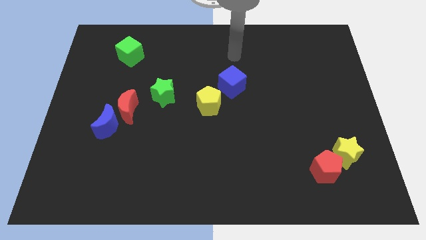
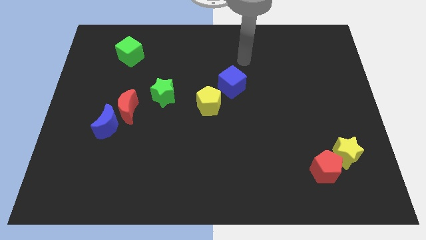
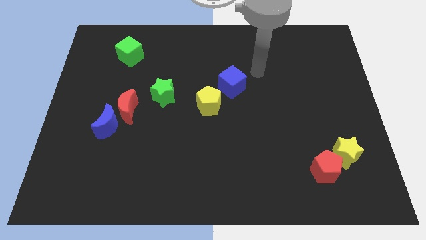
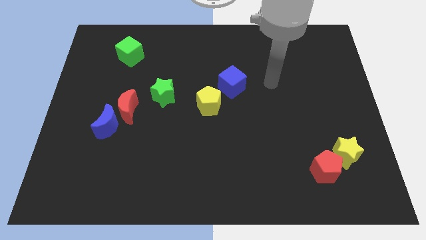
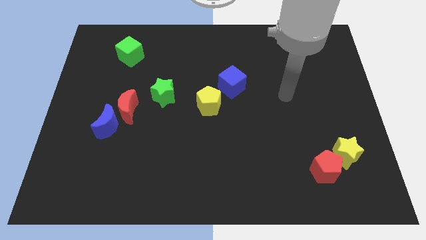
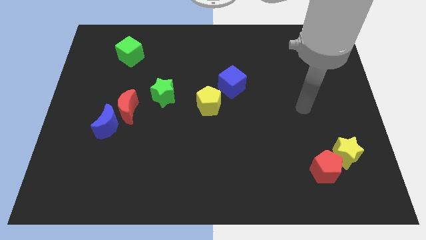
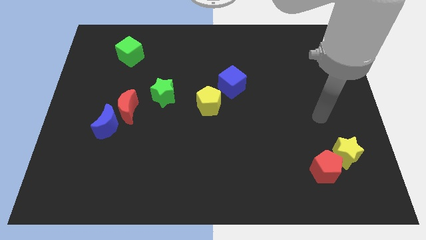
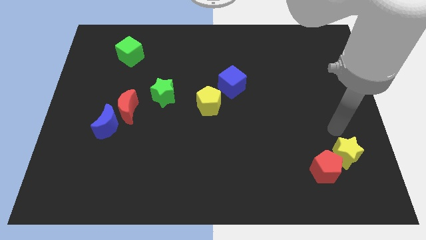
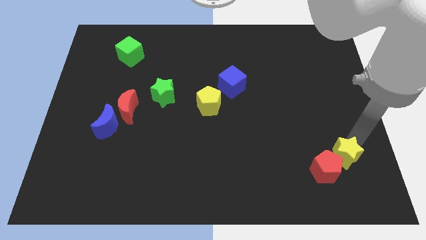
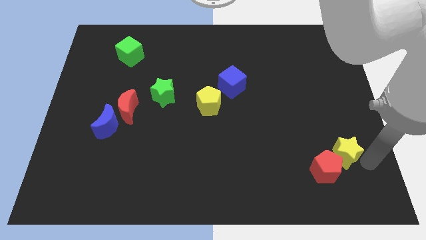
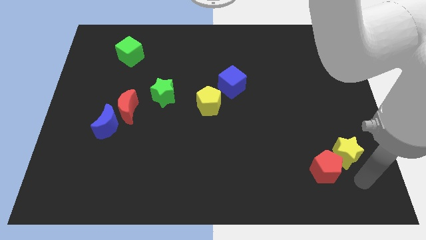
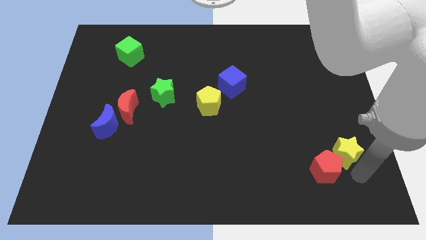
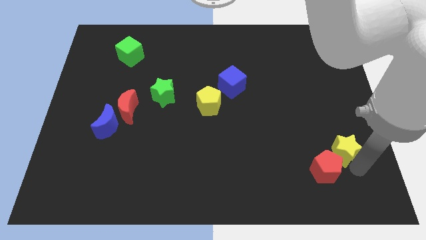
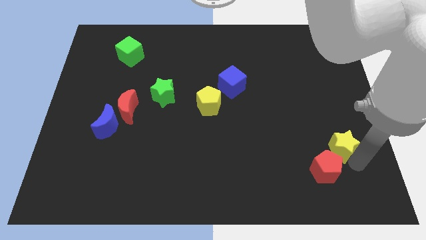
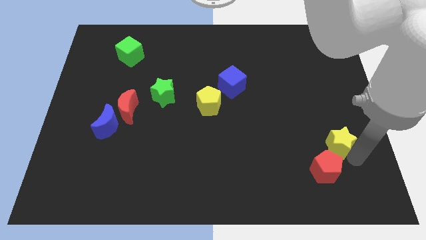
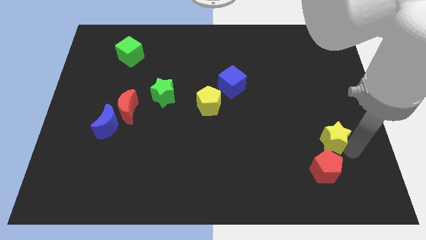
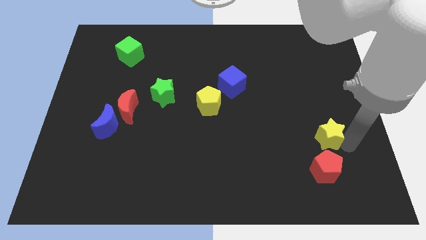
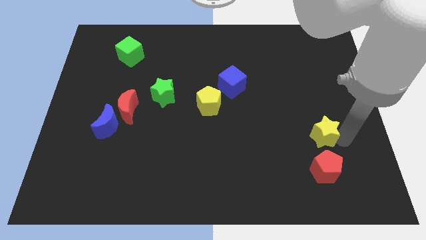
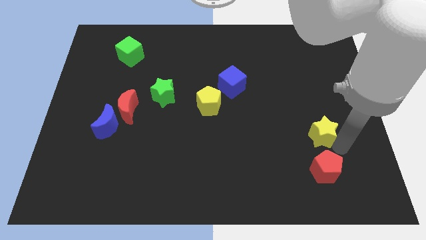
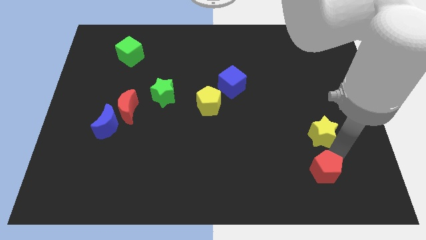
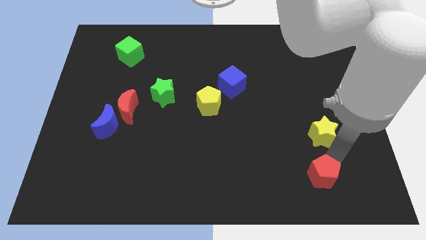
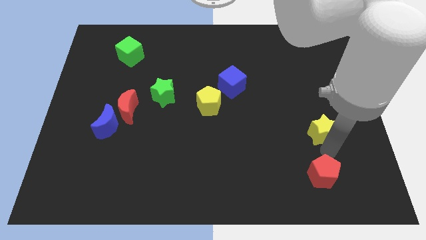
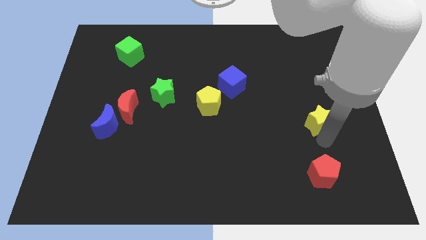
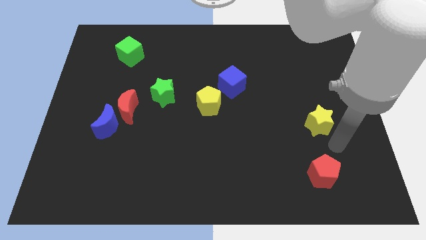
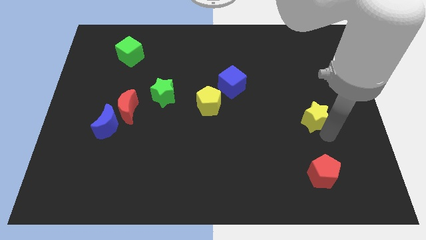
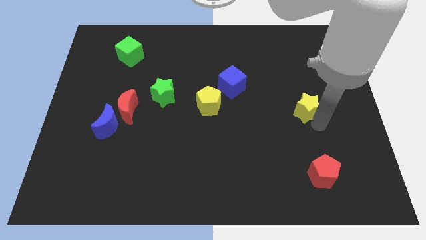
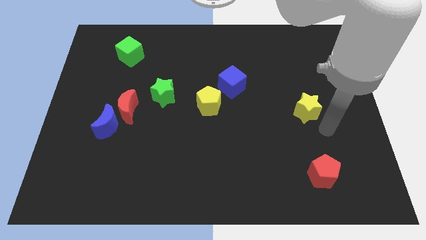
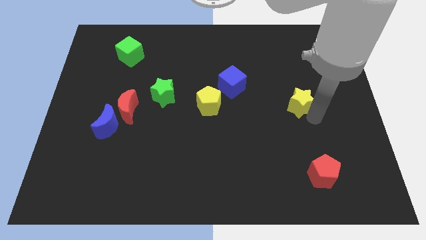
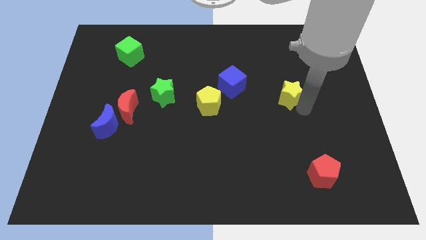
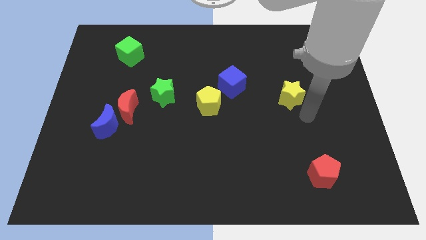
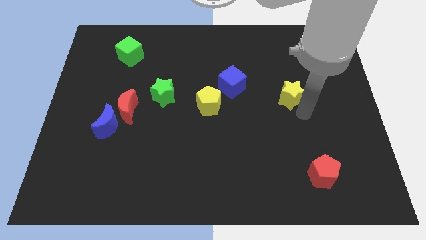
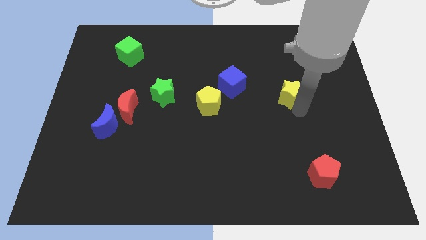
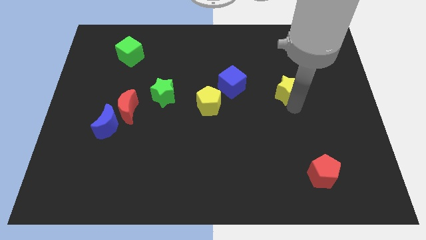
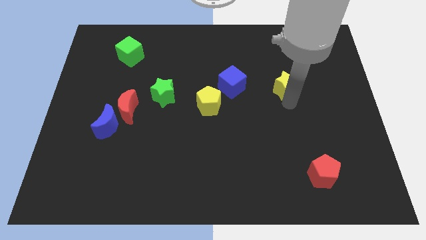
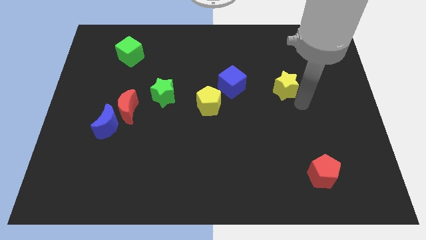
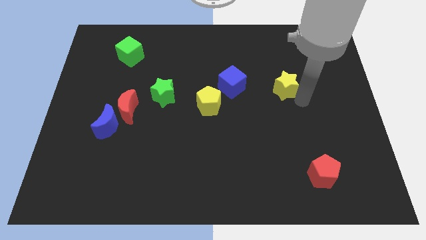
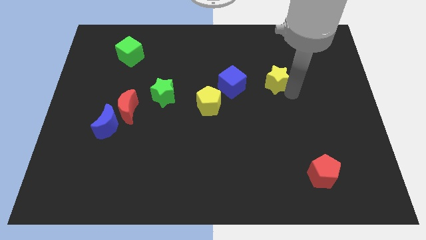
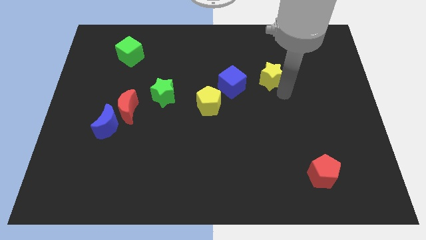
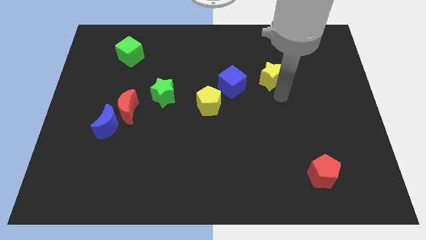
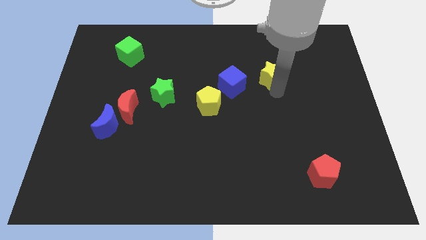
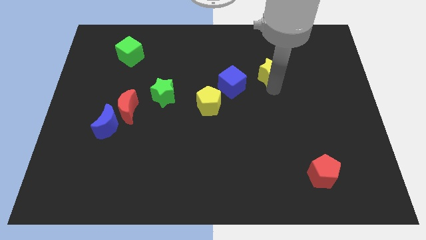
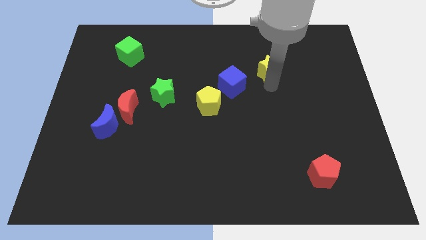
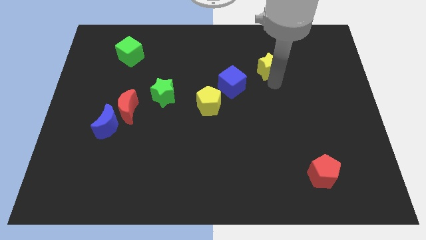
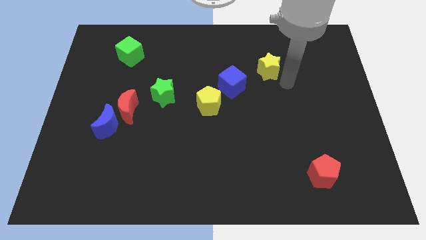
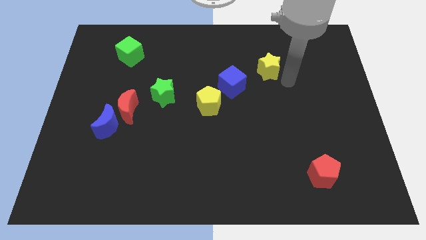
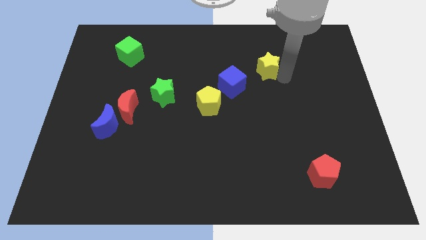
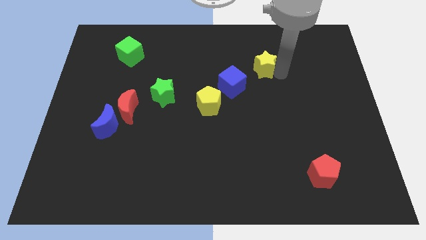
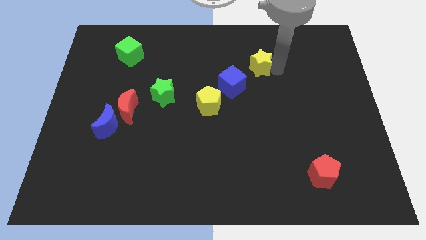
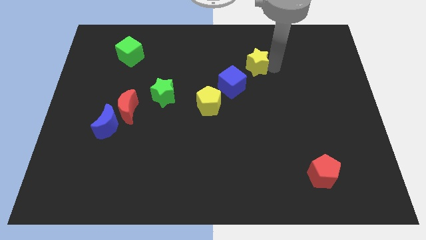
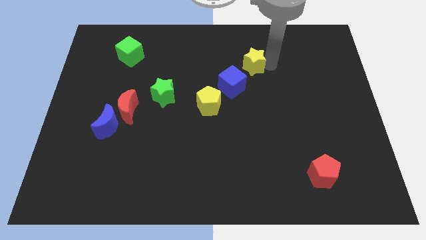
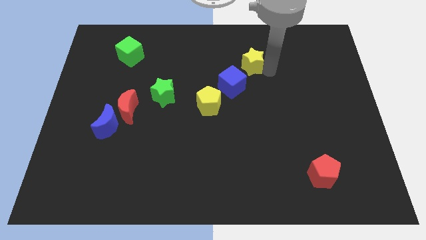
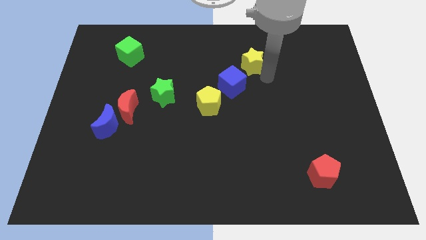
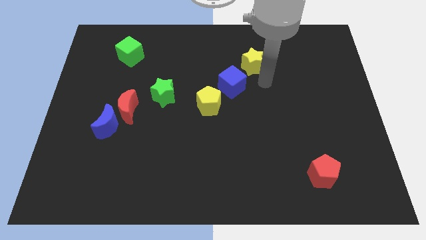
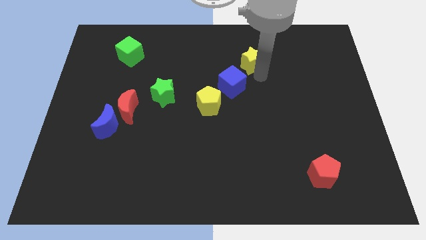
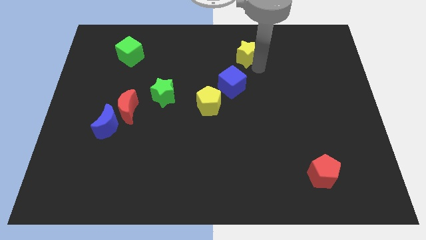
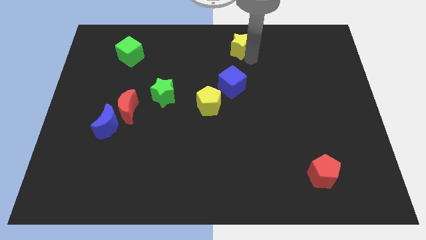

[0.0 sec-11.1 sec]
push the yellow star to the towards your base

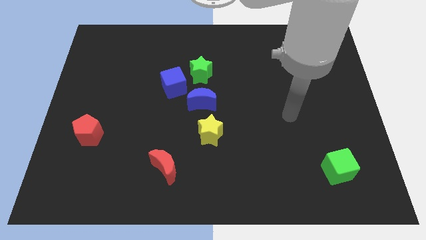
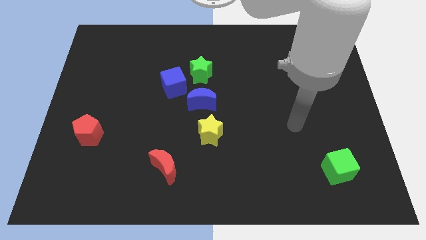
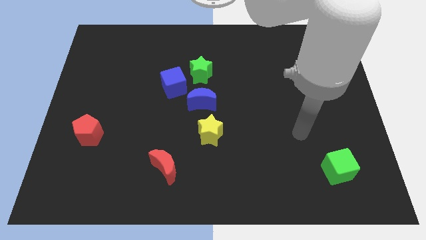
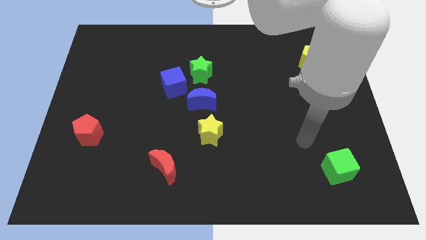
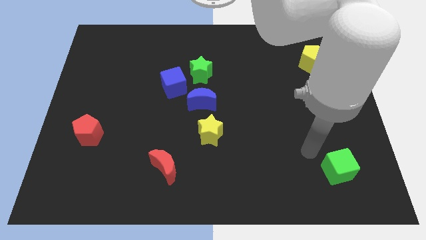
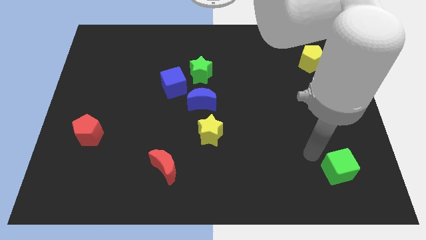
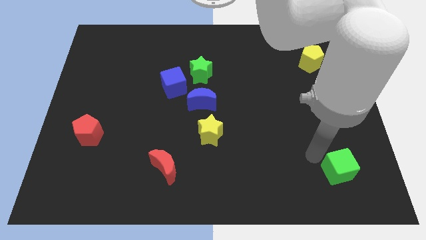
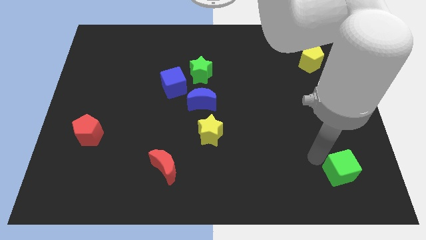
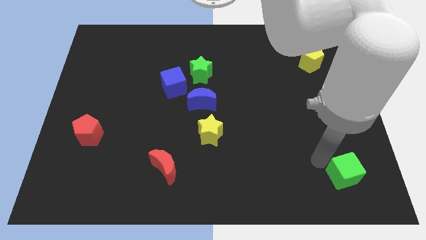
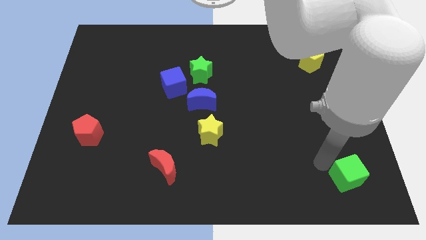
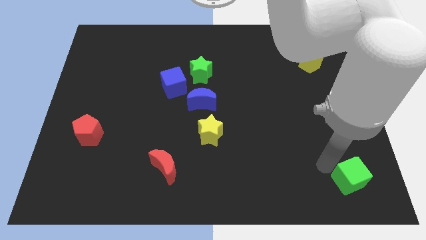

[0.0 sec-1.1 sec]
push the green cube to the bottom right corner
